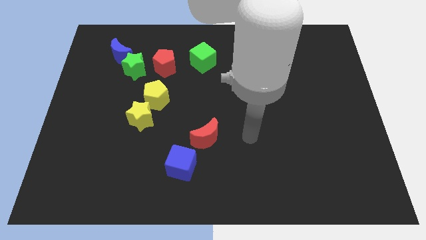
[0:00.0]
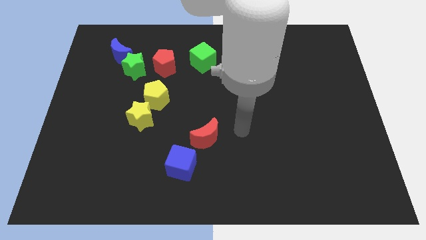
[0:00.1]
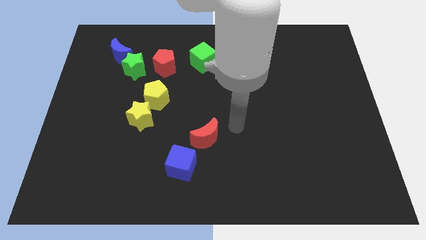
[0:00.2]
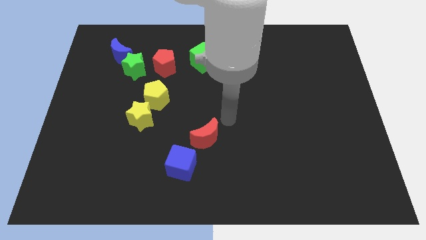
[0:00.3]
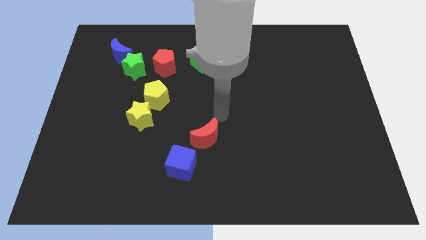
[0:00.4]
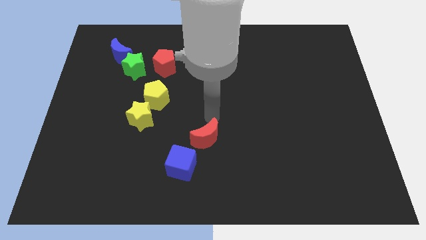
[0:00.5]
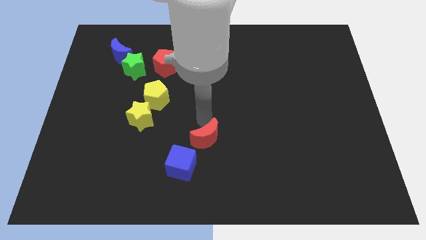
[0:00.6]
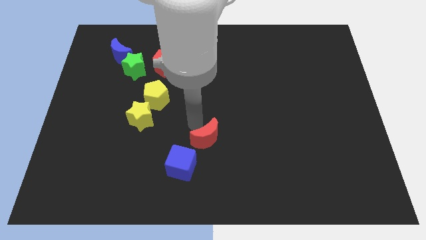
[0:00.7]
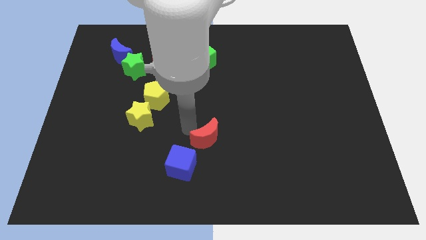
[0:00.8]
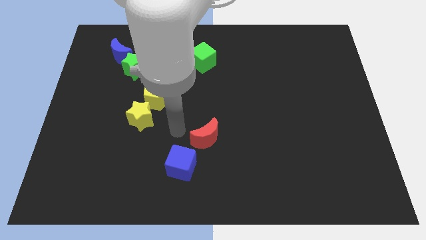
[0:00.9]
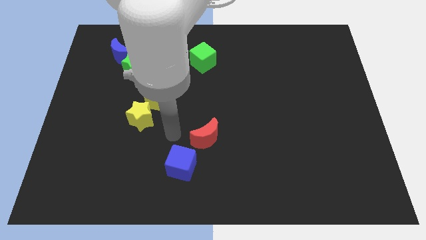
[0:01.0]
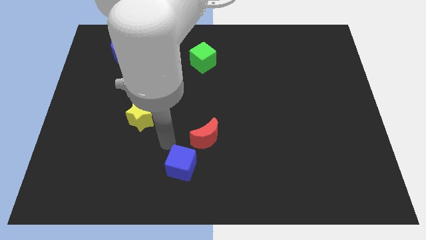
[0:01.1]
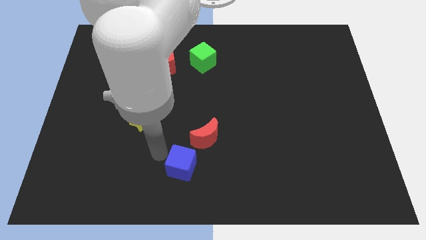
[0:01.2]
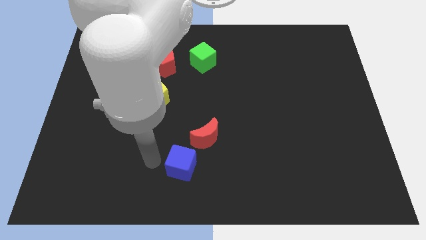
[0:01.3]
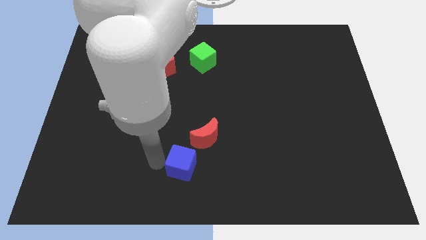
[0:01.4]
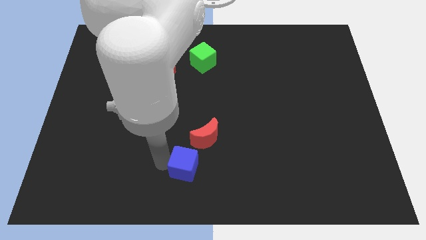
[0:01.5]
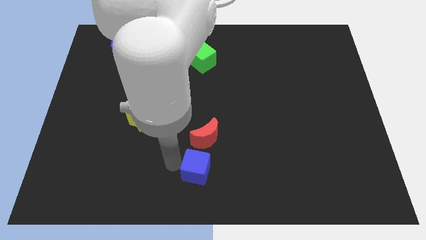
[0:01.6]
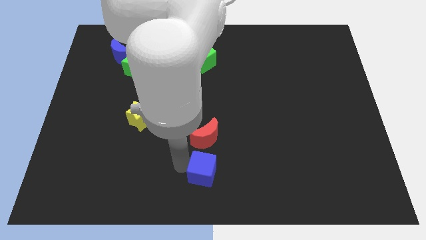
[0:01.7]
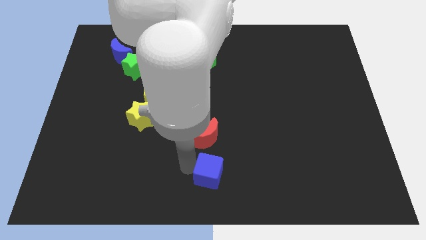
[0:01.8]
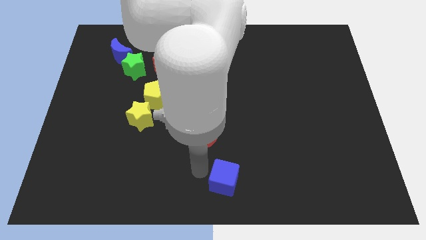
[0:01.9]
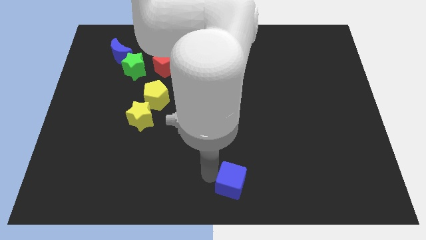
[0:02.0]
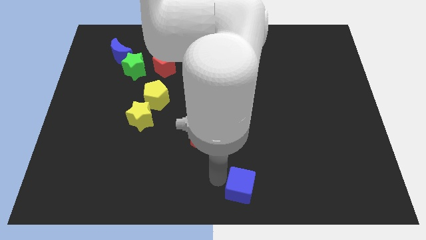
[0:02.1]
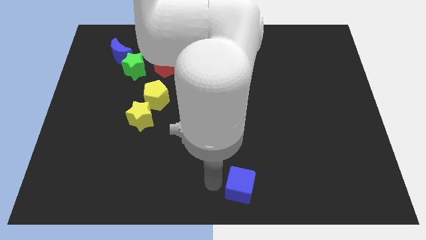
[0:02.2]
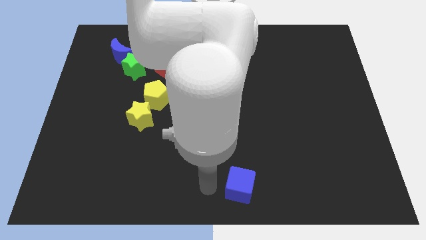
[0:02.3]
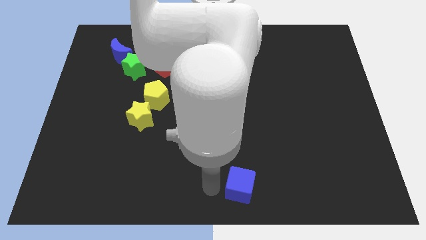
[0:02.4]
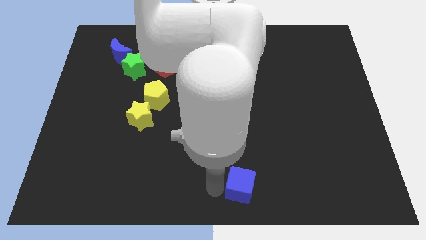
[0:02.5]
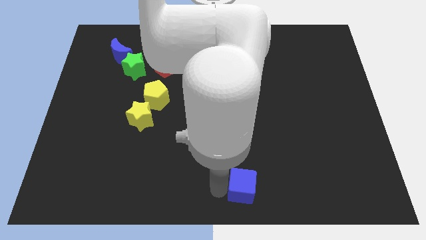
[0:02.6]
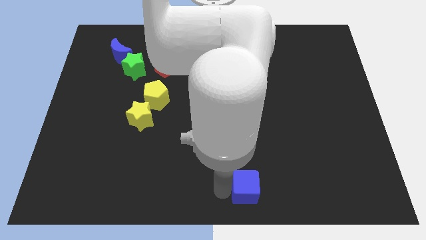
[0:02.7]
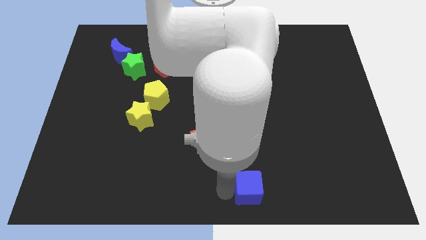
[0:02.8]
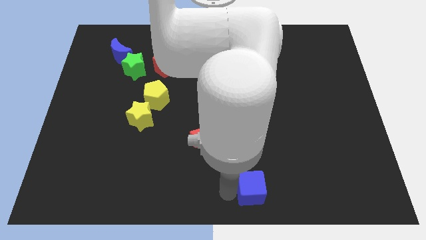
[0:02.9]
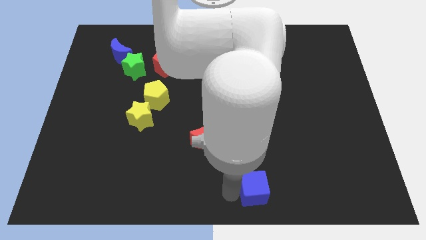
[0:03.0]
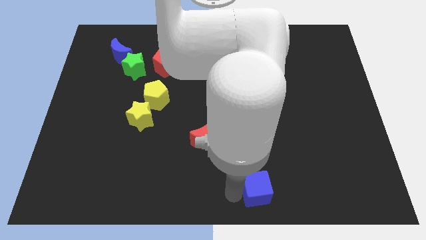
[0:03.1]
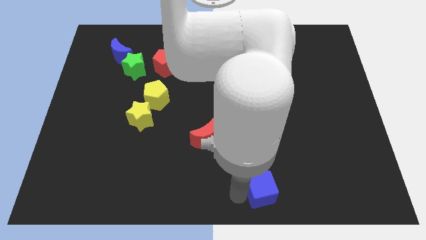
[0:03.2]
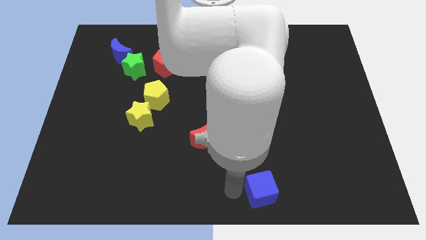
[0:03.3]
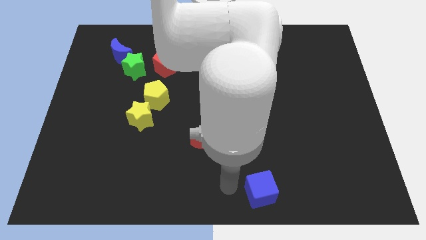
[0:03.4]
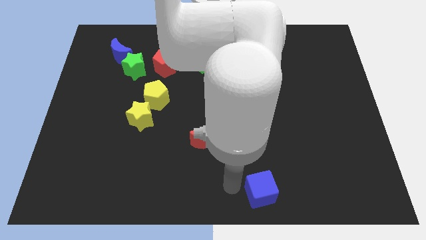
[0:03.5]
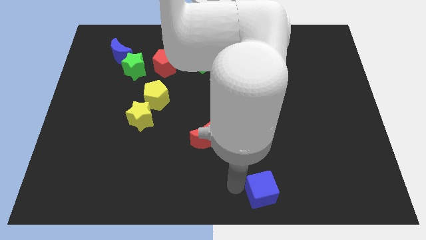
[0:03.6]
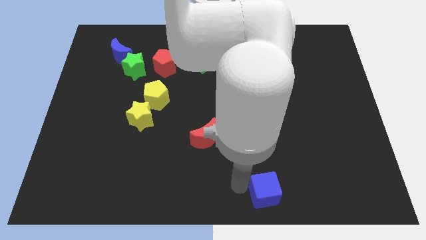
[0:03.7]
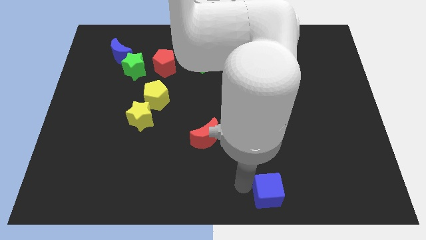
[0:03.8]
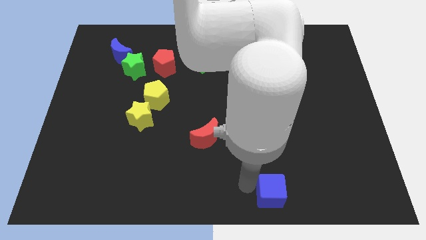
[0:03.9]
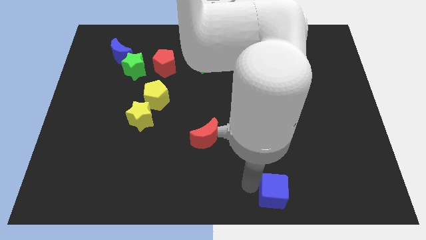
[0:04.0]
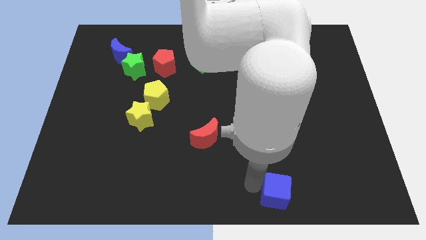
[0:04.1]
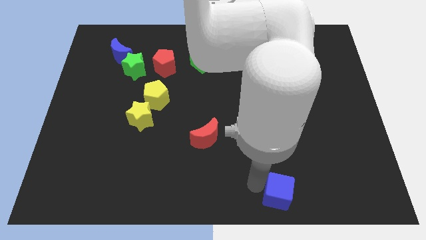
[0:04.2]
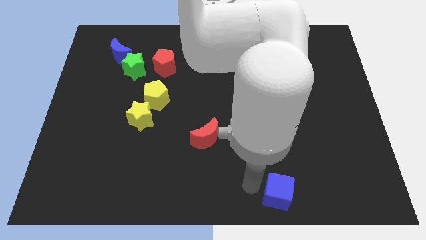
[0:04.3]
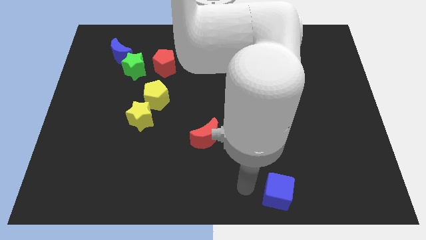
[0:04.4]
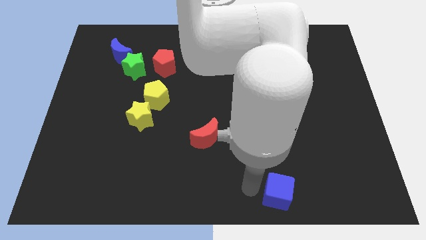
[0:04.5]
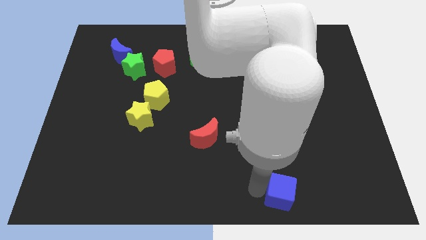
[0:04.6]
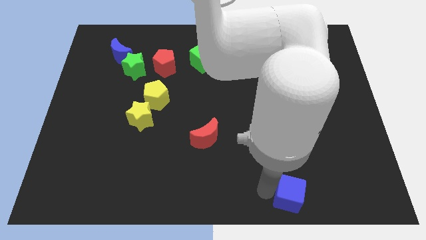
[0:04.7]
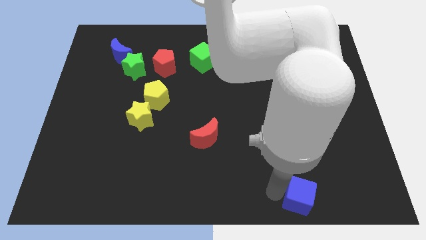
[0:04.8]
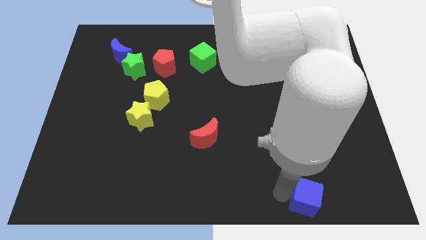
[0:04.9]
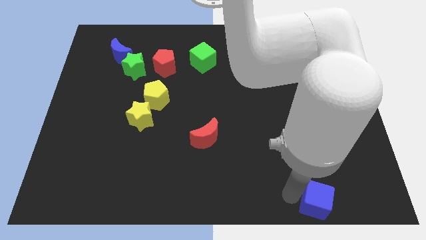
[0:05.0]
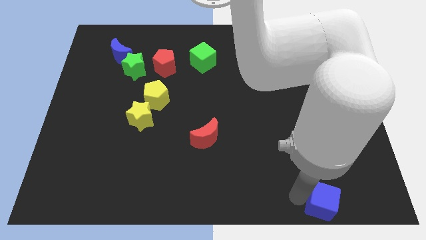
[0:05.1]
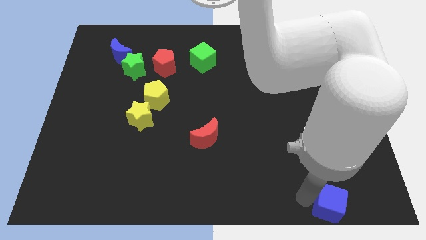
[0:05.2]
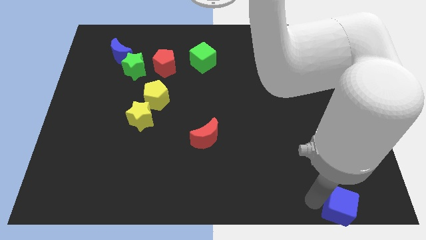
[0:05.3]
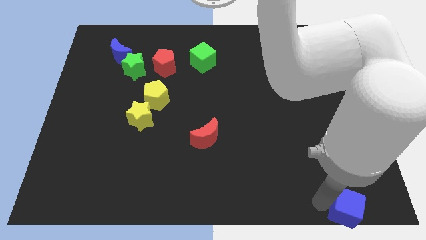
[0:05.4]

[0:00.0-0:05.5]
slide the blue cube to the bottom right corner
